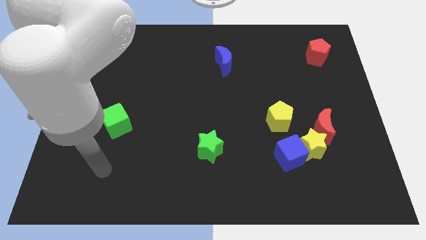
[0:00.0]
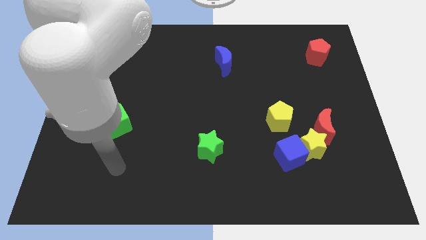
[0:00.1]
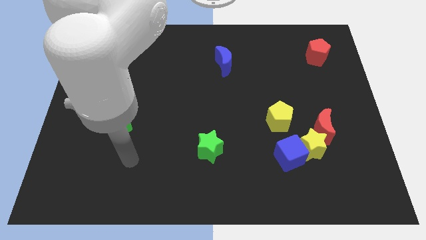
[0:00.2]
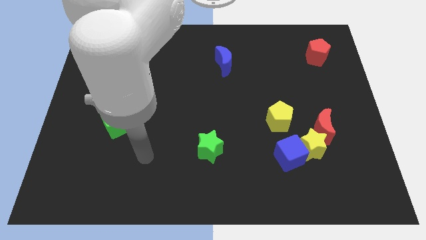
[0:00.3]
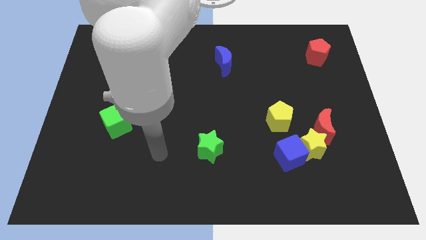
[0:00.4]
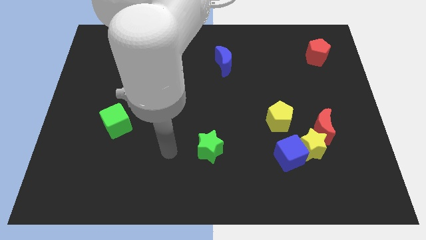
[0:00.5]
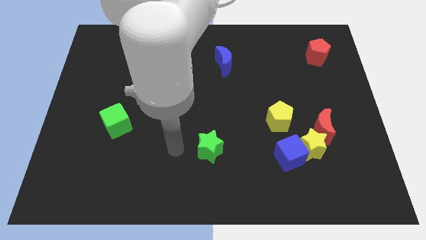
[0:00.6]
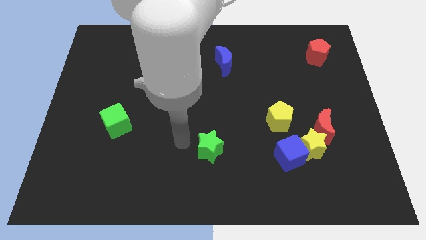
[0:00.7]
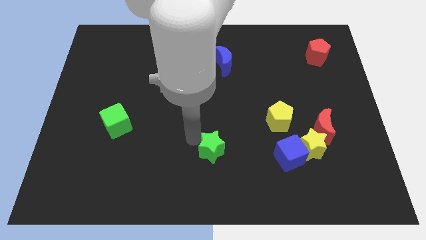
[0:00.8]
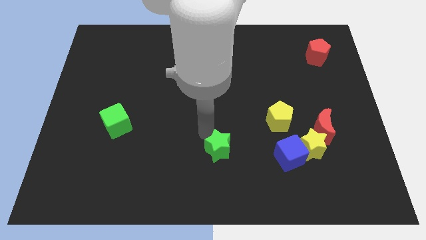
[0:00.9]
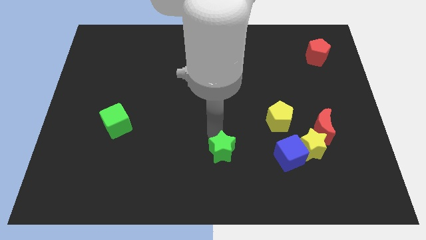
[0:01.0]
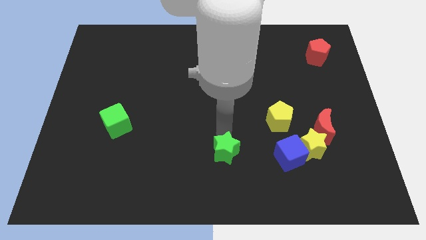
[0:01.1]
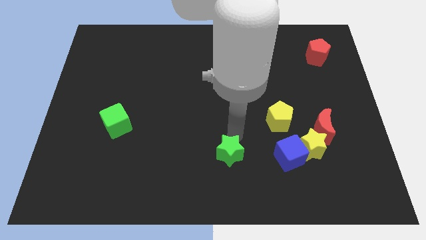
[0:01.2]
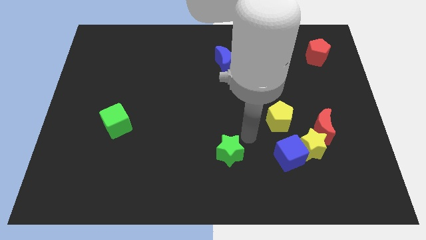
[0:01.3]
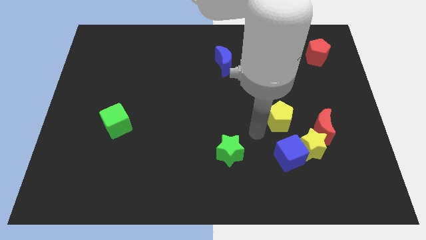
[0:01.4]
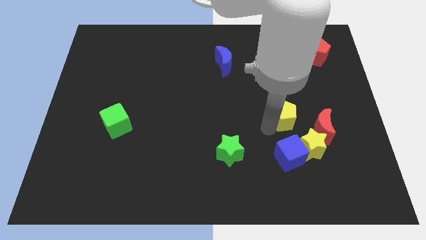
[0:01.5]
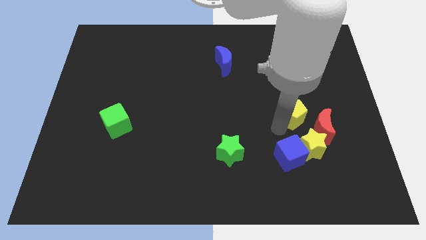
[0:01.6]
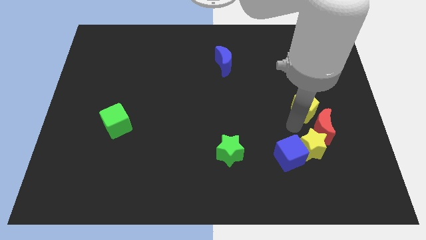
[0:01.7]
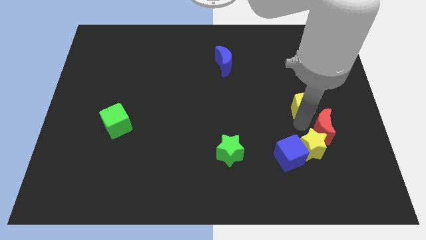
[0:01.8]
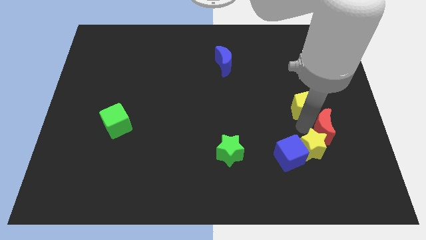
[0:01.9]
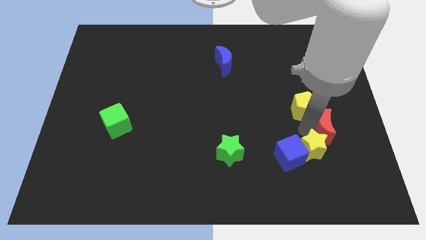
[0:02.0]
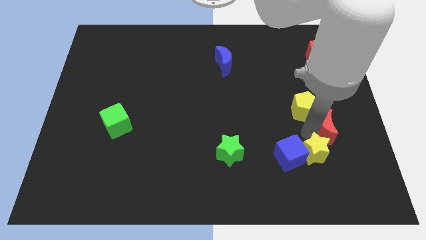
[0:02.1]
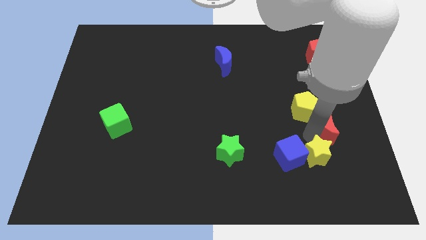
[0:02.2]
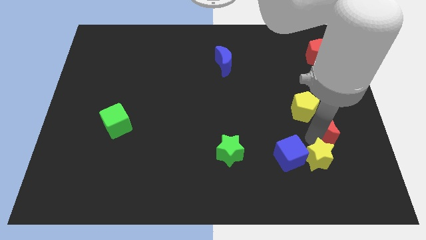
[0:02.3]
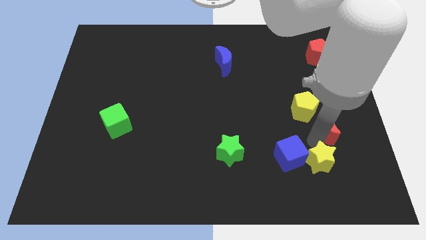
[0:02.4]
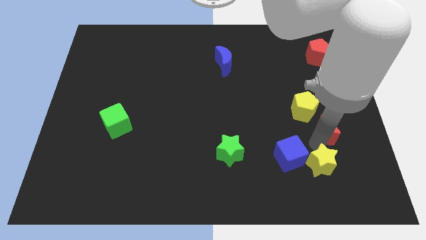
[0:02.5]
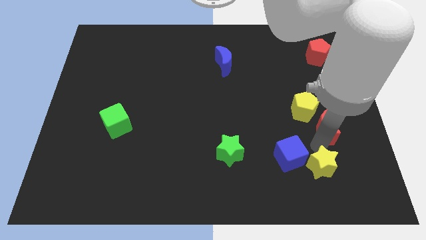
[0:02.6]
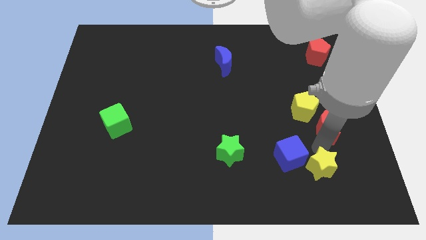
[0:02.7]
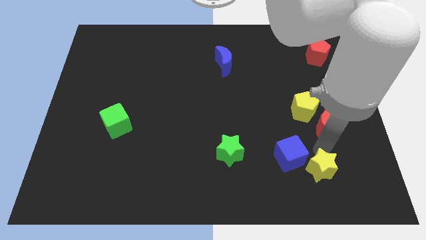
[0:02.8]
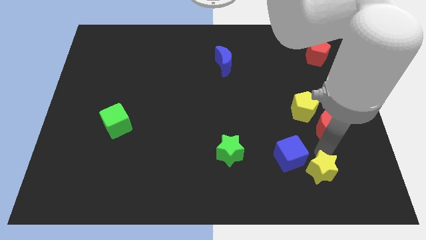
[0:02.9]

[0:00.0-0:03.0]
pull the yellow star apart from the group of blocks

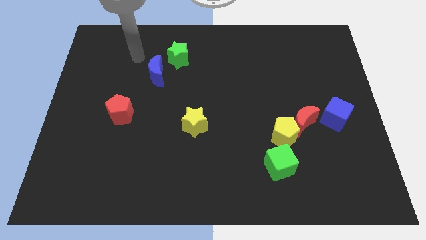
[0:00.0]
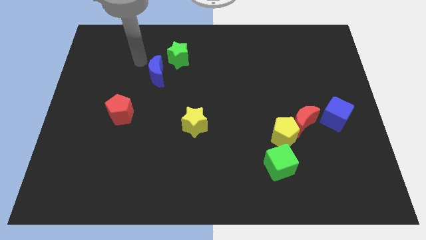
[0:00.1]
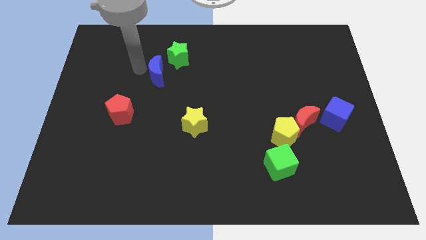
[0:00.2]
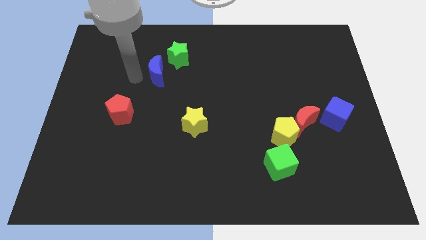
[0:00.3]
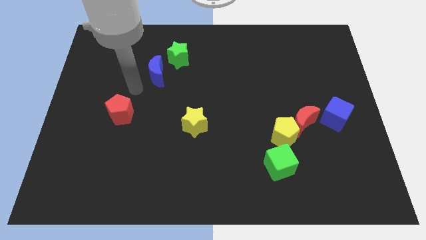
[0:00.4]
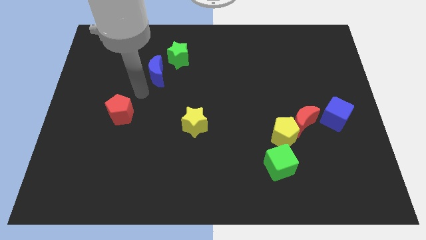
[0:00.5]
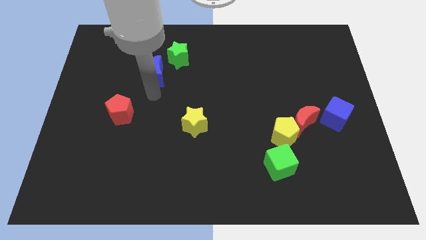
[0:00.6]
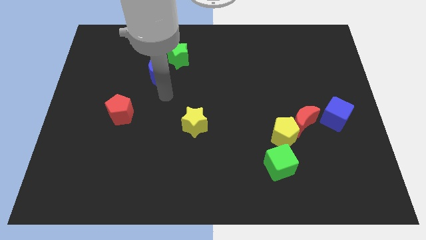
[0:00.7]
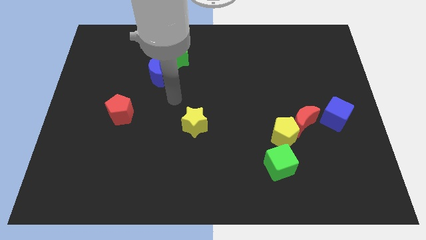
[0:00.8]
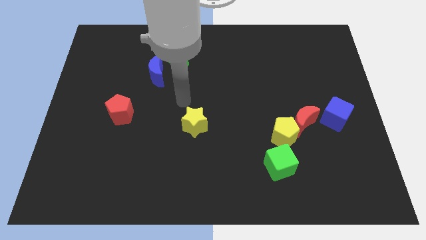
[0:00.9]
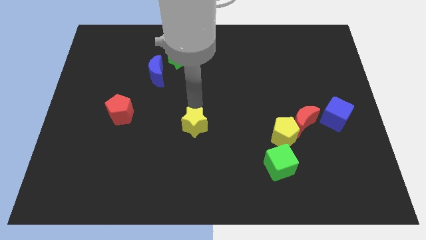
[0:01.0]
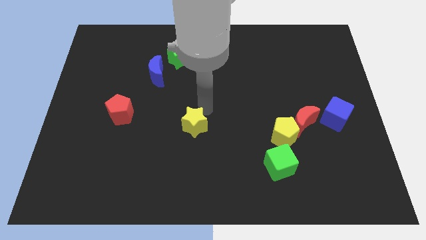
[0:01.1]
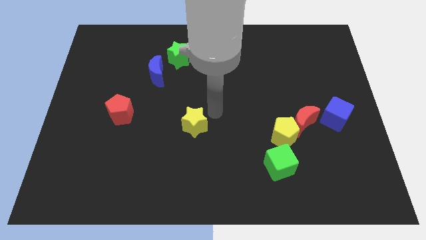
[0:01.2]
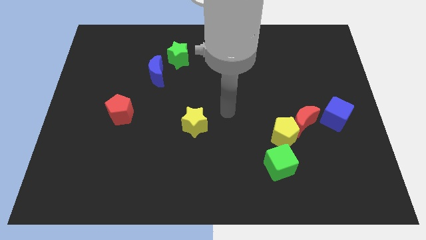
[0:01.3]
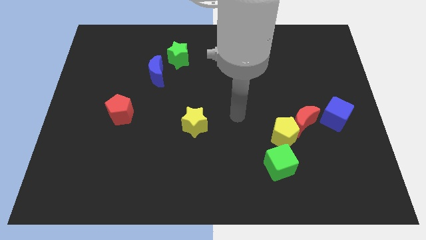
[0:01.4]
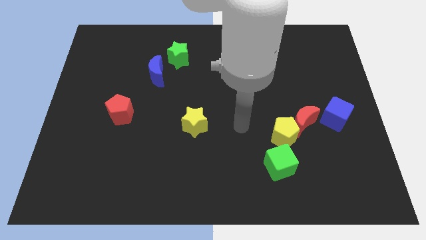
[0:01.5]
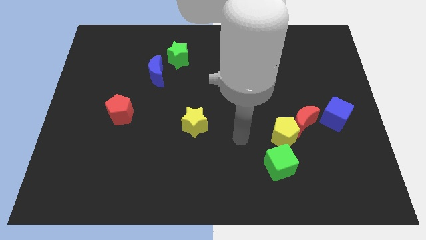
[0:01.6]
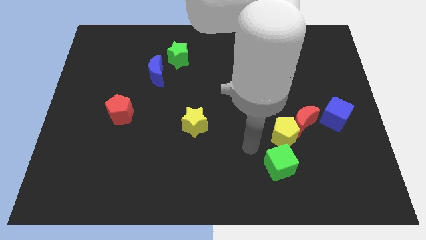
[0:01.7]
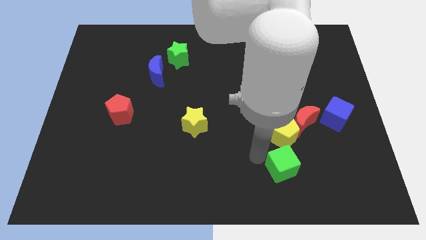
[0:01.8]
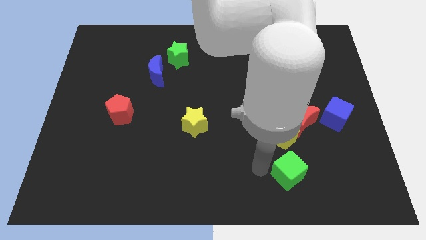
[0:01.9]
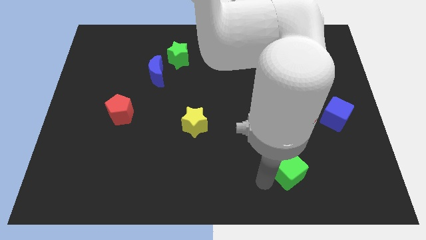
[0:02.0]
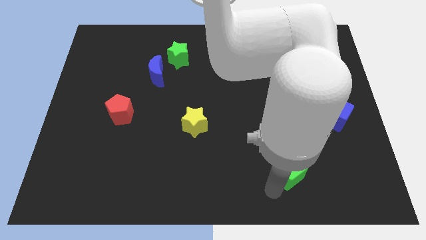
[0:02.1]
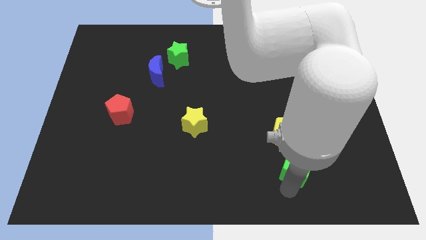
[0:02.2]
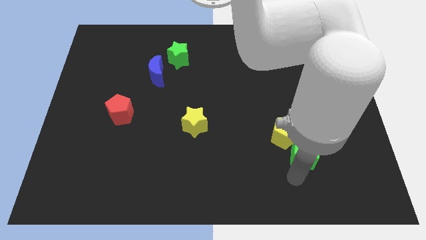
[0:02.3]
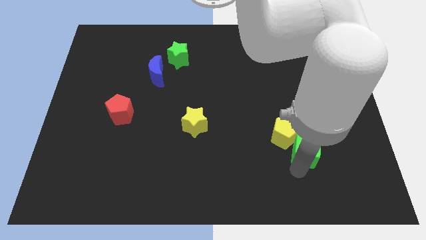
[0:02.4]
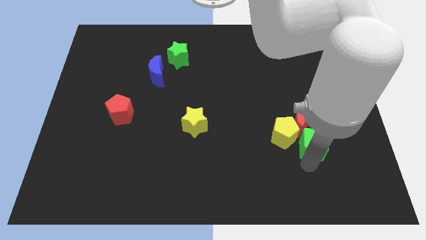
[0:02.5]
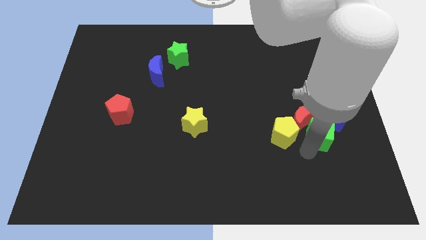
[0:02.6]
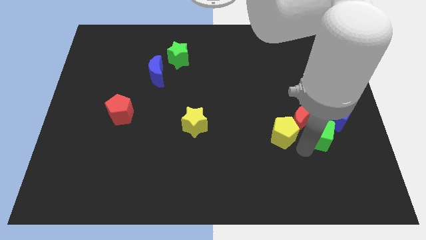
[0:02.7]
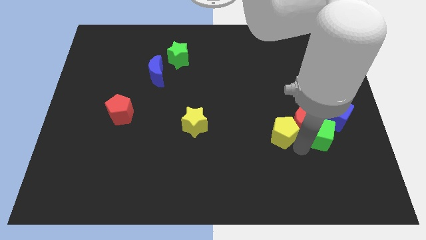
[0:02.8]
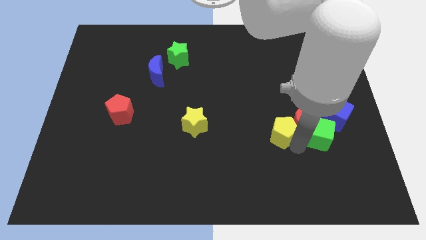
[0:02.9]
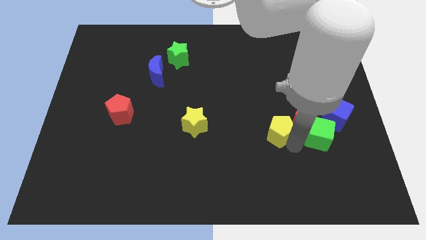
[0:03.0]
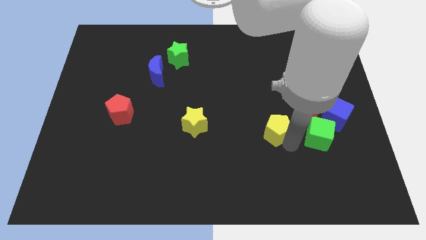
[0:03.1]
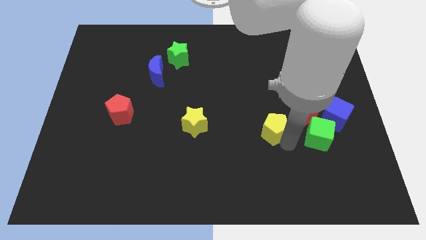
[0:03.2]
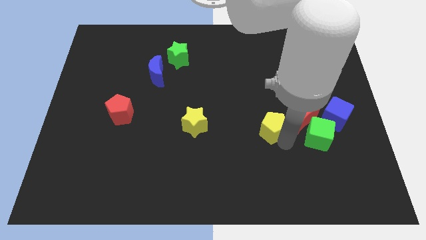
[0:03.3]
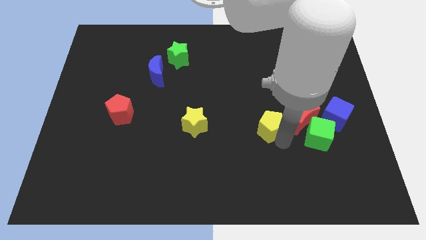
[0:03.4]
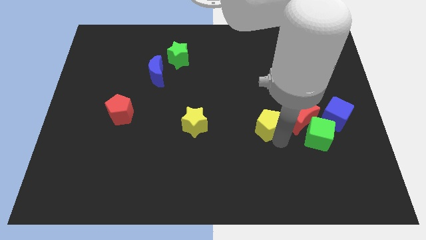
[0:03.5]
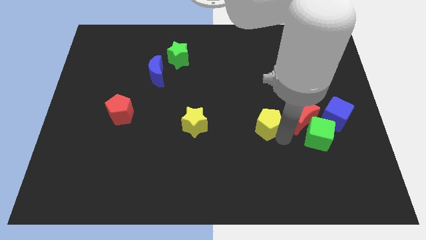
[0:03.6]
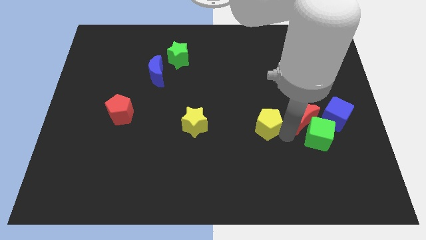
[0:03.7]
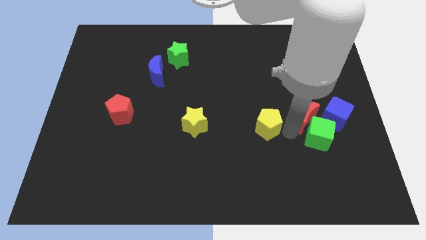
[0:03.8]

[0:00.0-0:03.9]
pull the yellow pentagon apart from the red moon and green cube

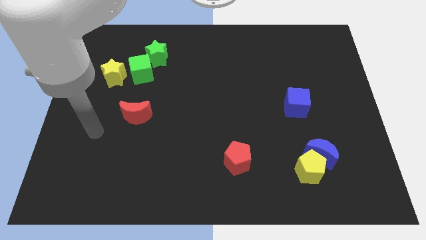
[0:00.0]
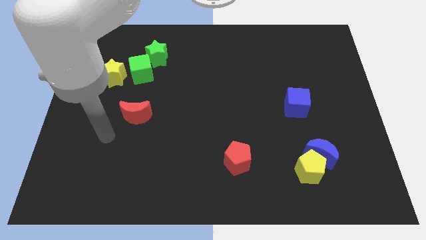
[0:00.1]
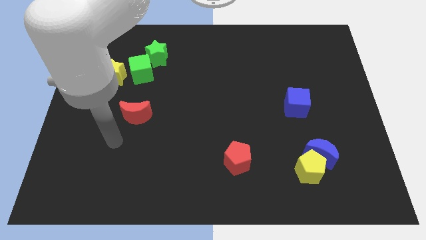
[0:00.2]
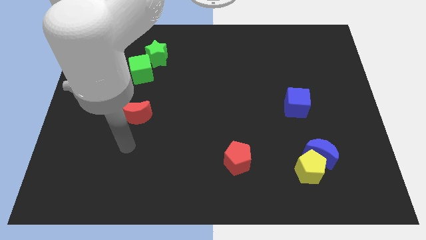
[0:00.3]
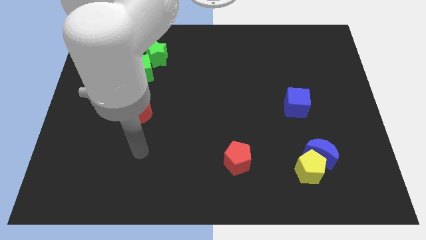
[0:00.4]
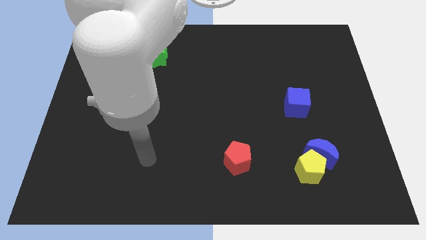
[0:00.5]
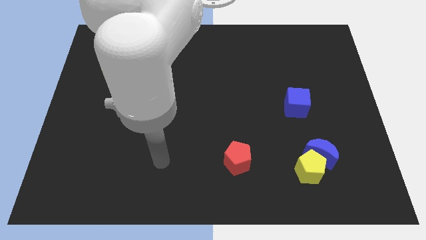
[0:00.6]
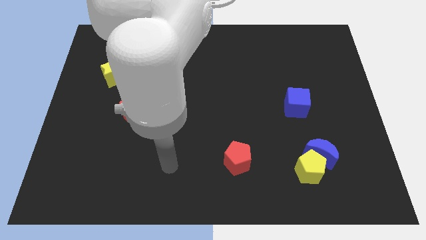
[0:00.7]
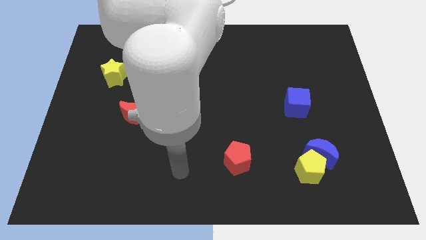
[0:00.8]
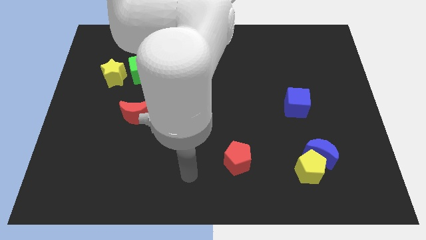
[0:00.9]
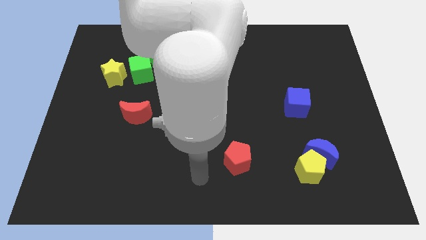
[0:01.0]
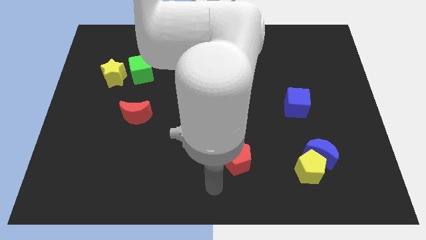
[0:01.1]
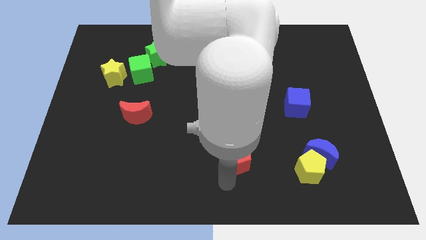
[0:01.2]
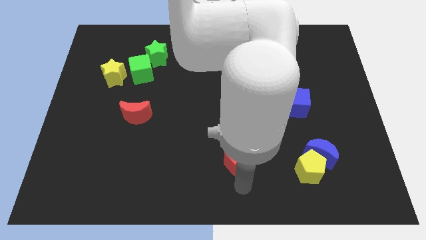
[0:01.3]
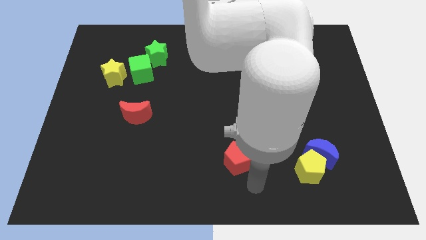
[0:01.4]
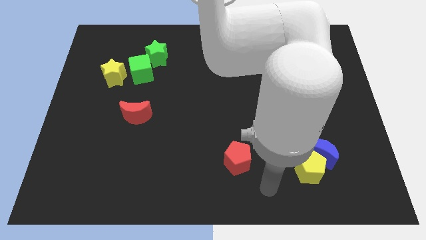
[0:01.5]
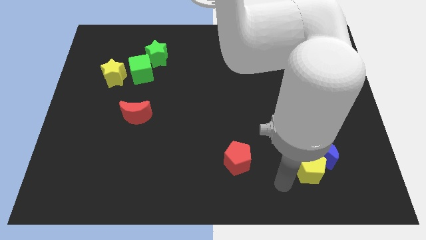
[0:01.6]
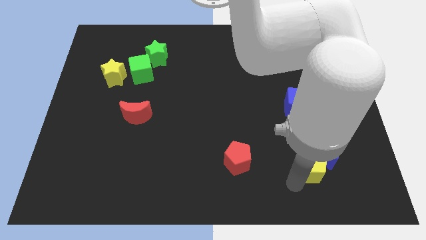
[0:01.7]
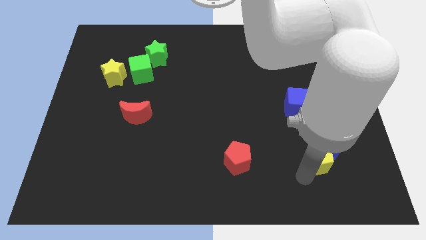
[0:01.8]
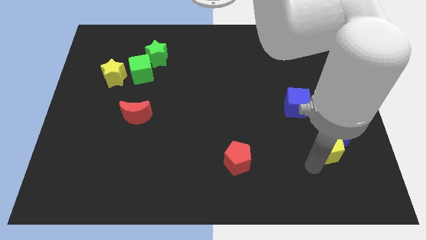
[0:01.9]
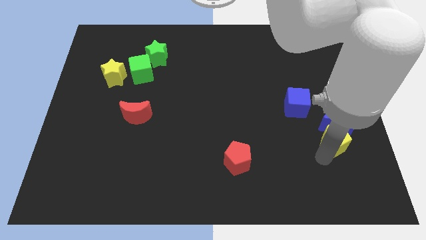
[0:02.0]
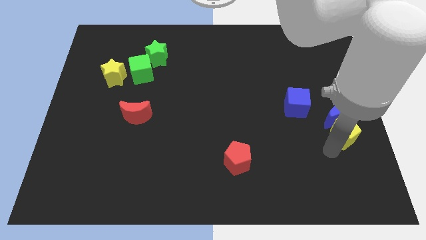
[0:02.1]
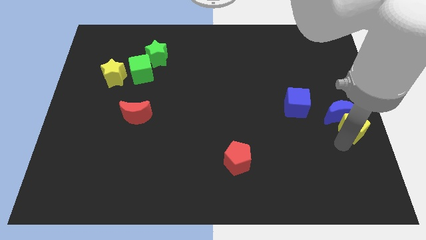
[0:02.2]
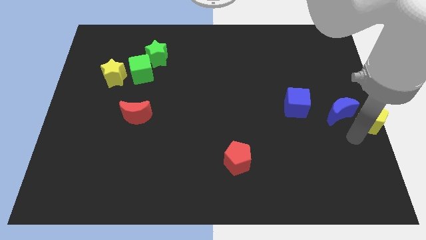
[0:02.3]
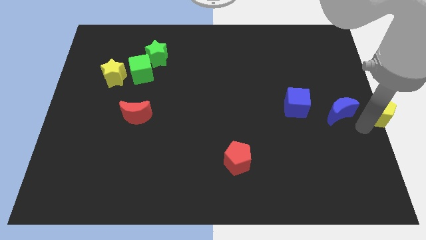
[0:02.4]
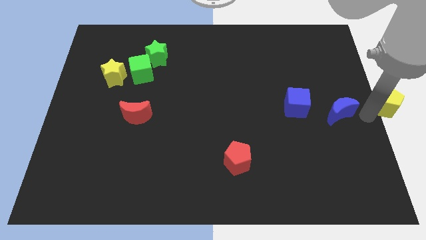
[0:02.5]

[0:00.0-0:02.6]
move the blue moon away from the yellow pentagon
